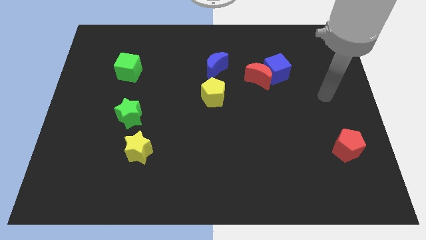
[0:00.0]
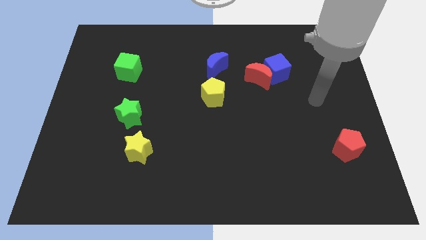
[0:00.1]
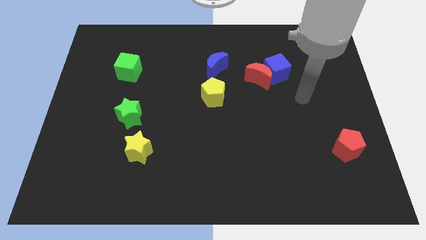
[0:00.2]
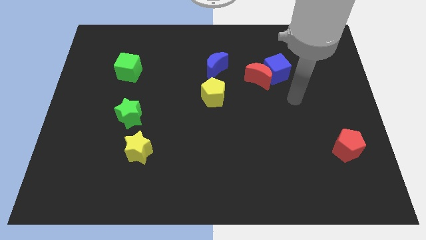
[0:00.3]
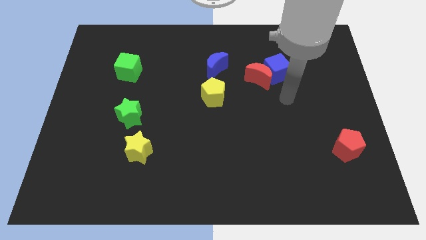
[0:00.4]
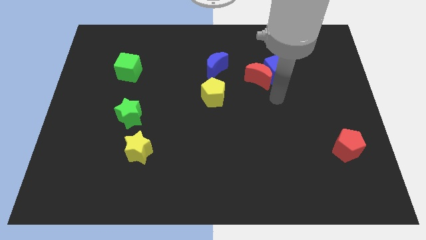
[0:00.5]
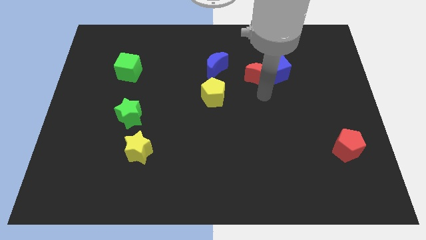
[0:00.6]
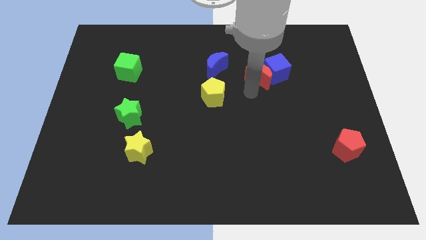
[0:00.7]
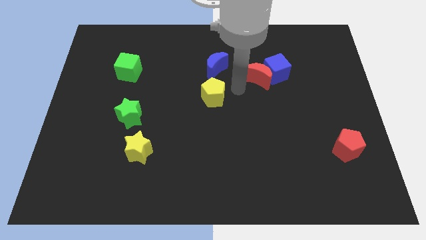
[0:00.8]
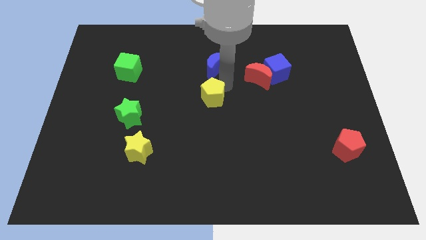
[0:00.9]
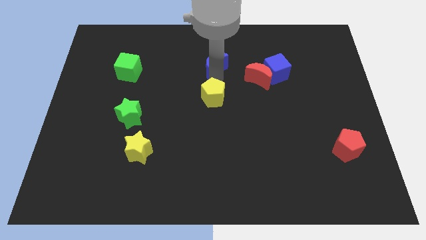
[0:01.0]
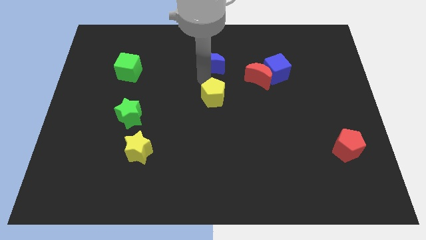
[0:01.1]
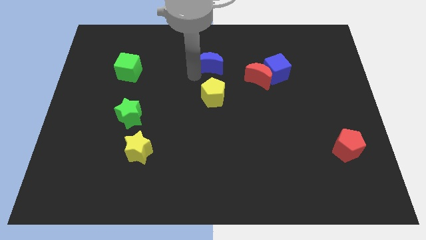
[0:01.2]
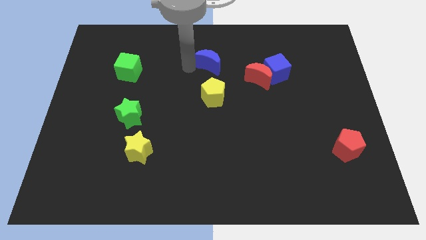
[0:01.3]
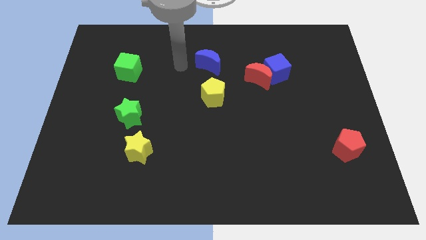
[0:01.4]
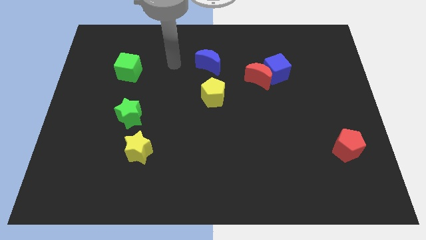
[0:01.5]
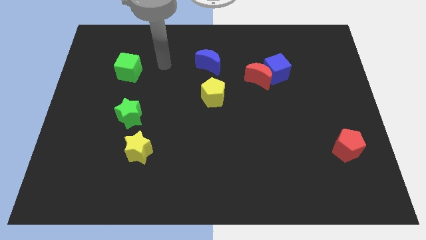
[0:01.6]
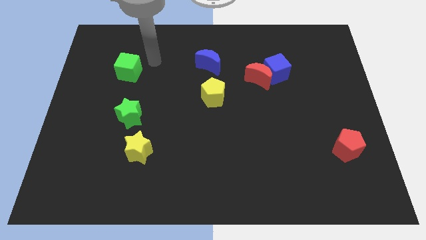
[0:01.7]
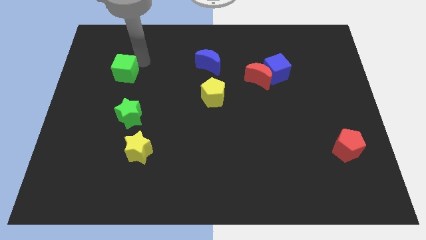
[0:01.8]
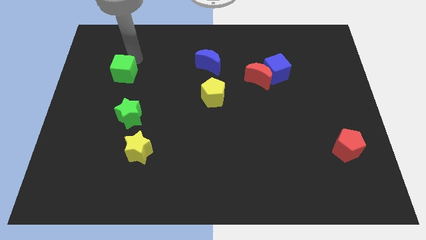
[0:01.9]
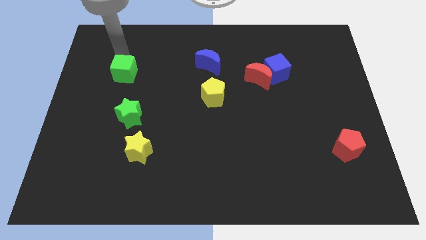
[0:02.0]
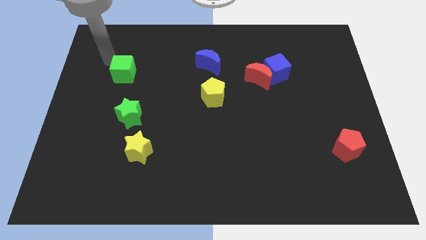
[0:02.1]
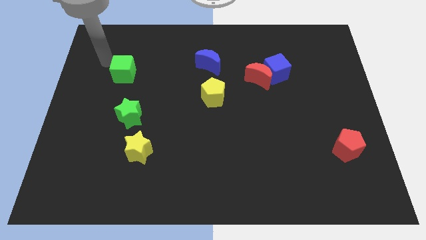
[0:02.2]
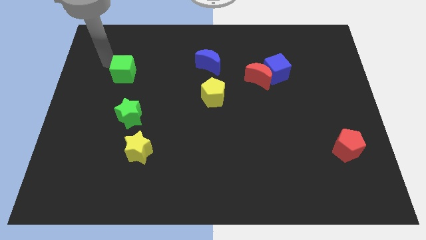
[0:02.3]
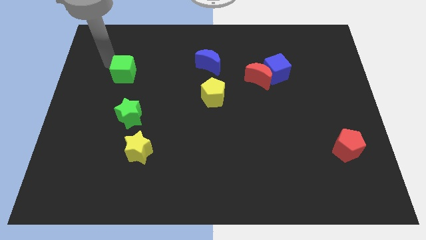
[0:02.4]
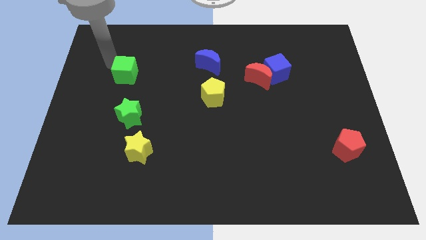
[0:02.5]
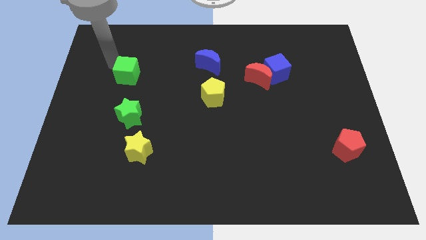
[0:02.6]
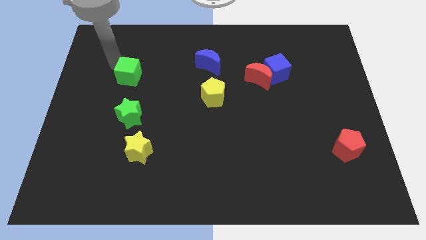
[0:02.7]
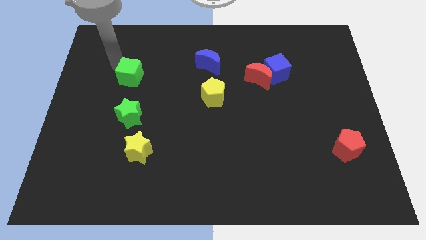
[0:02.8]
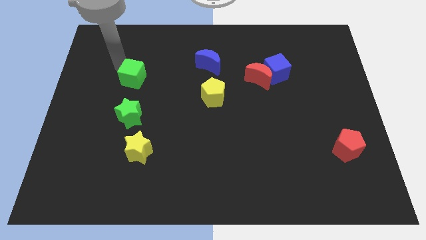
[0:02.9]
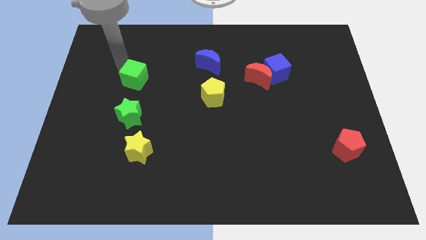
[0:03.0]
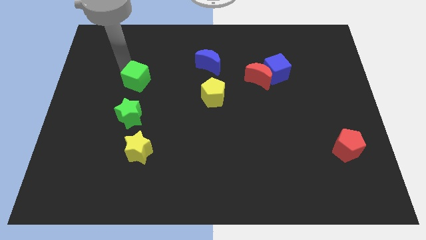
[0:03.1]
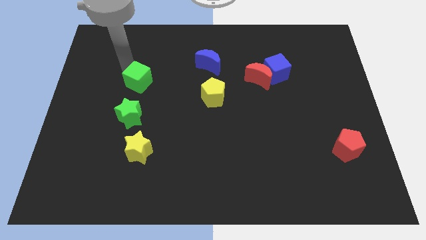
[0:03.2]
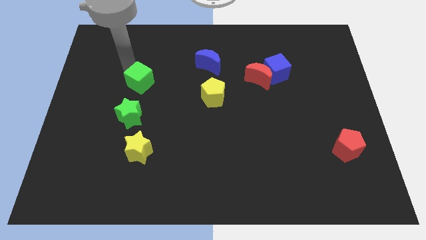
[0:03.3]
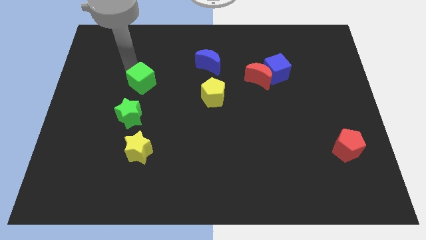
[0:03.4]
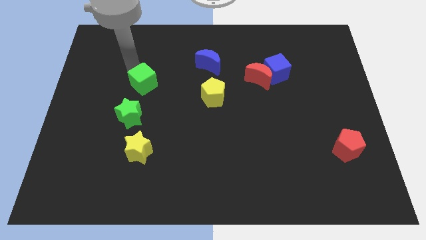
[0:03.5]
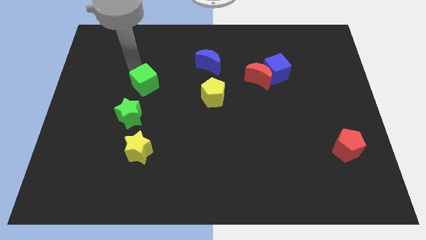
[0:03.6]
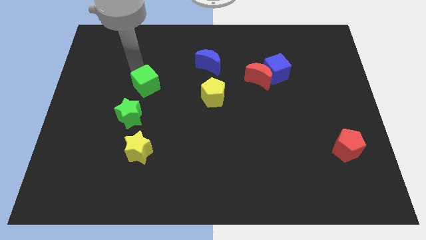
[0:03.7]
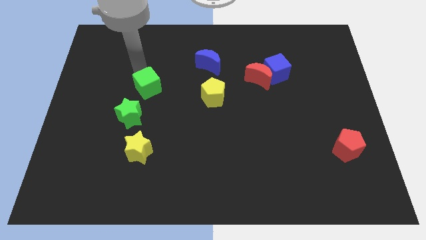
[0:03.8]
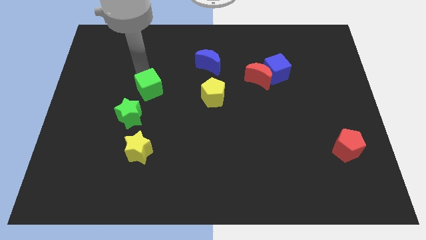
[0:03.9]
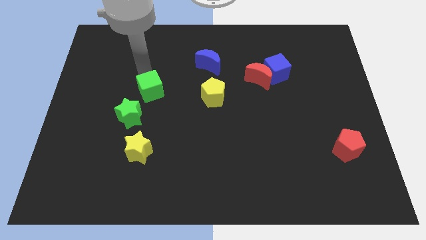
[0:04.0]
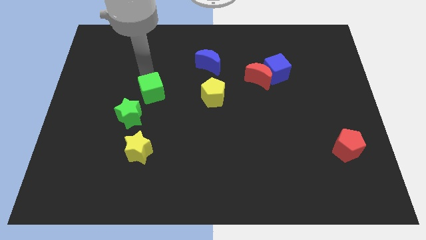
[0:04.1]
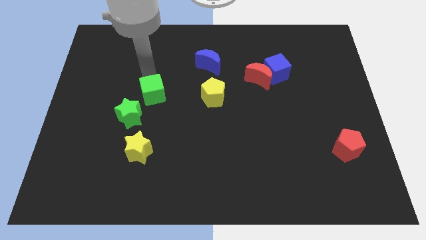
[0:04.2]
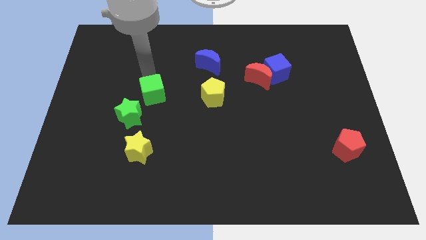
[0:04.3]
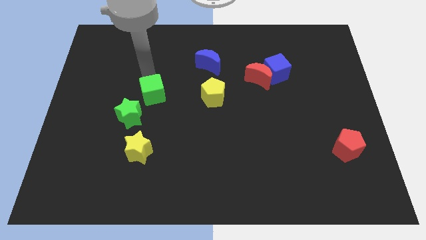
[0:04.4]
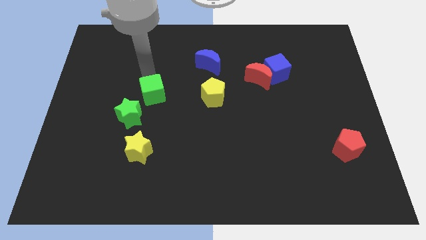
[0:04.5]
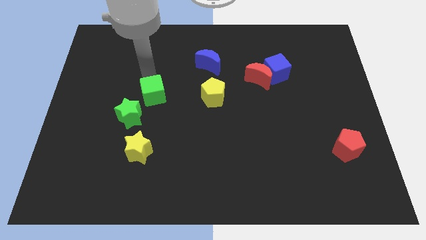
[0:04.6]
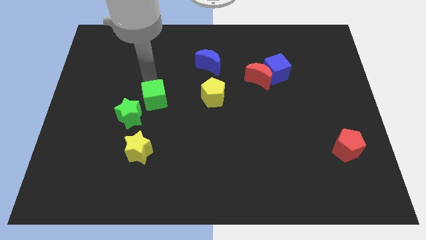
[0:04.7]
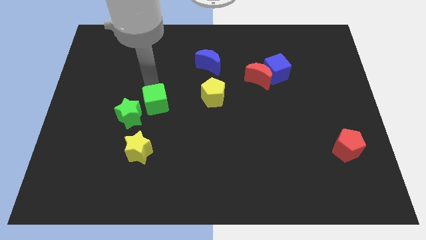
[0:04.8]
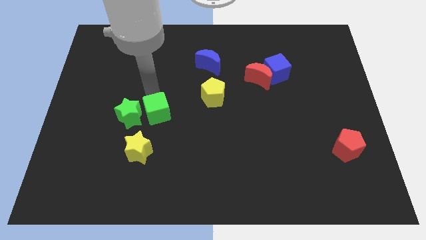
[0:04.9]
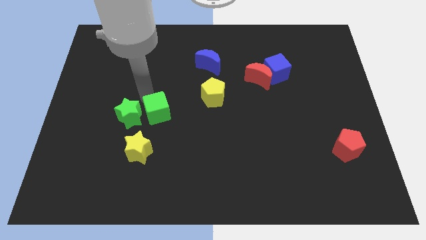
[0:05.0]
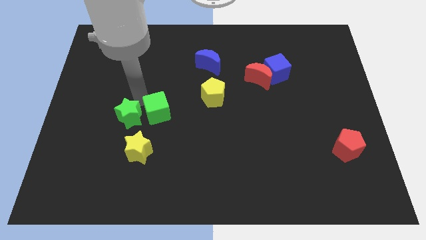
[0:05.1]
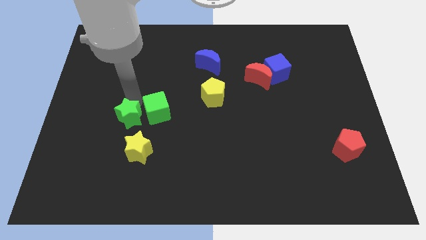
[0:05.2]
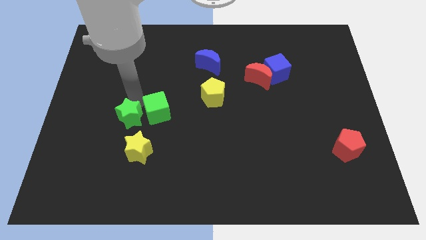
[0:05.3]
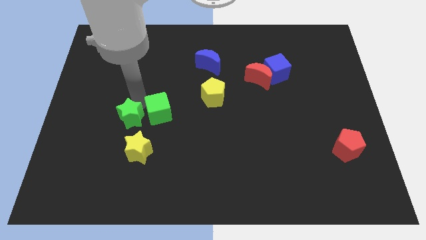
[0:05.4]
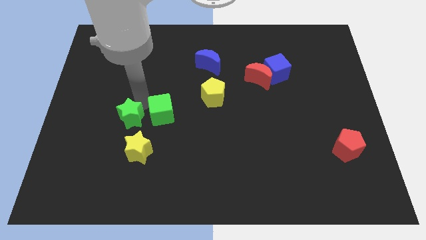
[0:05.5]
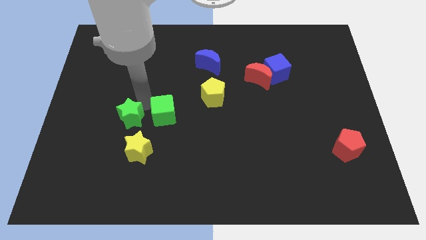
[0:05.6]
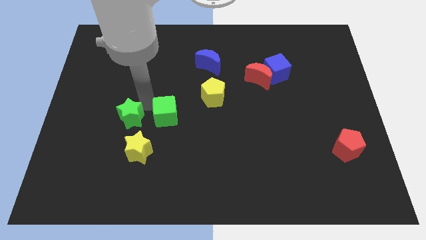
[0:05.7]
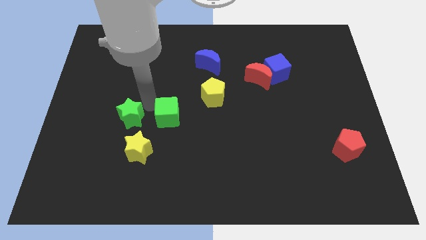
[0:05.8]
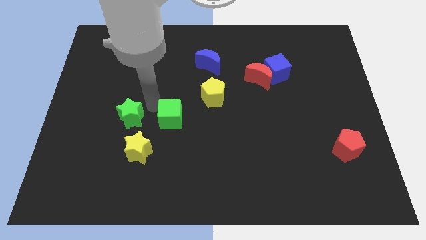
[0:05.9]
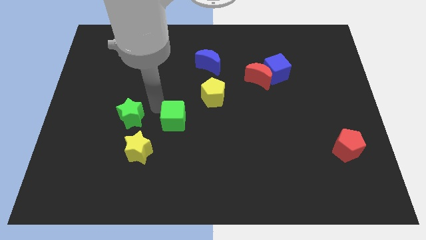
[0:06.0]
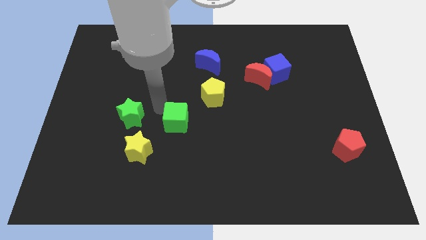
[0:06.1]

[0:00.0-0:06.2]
move the green cube diagonally down and to the right

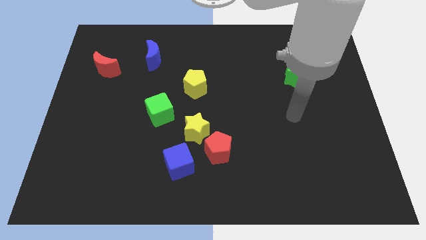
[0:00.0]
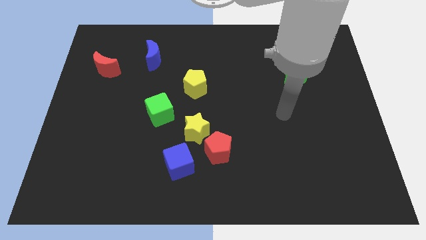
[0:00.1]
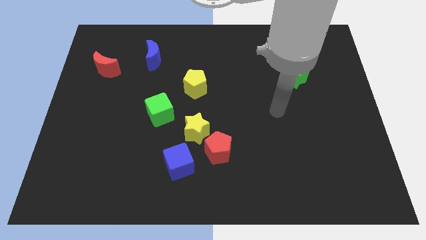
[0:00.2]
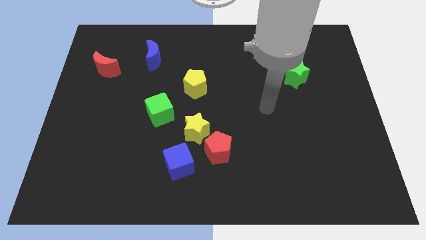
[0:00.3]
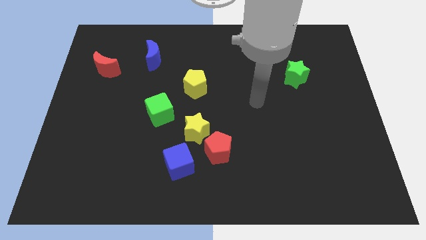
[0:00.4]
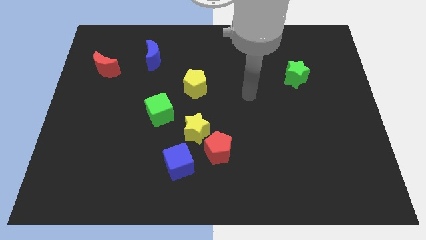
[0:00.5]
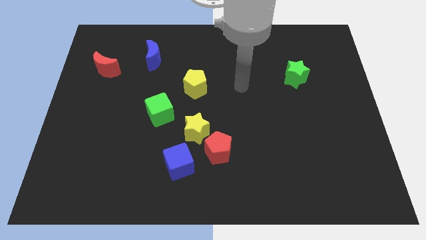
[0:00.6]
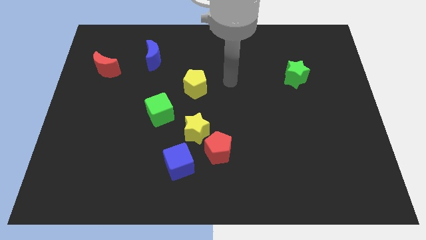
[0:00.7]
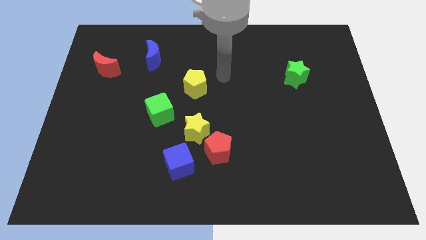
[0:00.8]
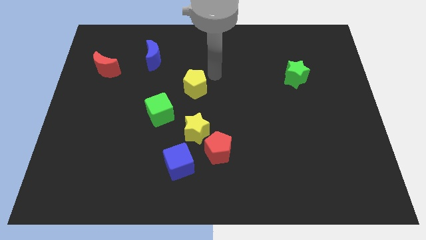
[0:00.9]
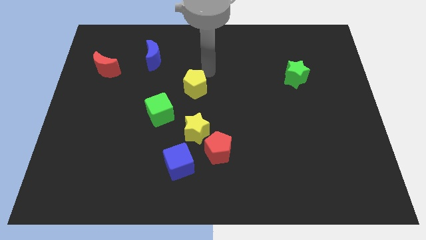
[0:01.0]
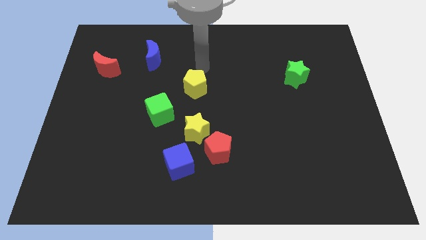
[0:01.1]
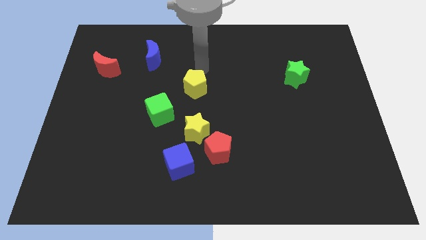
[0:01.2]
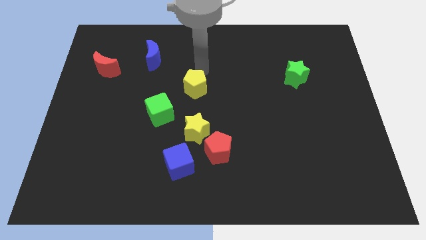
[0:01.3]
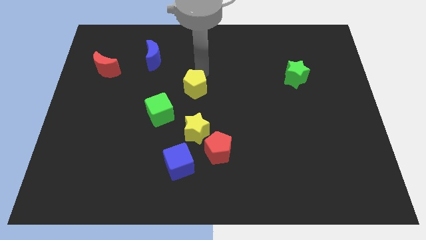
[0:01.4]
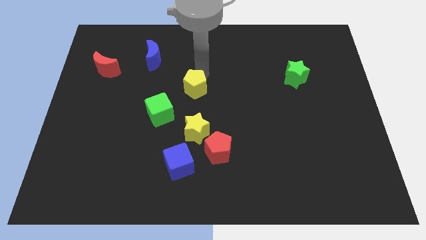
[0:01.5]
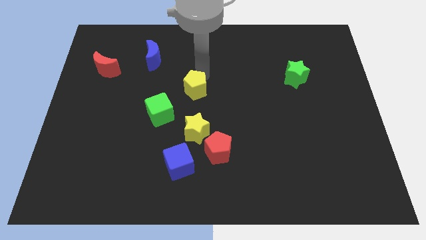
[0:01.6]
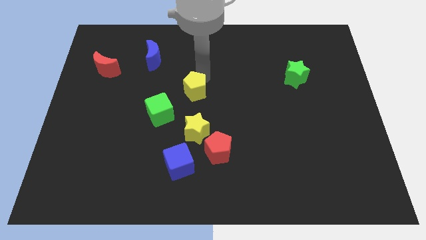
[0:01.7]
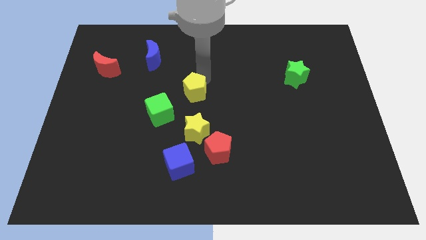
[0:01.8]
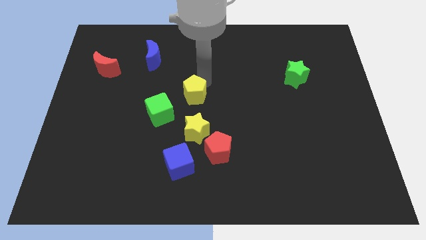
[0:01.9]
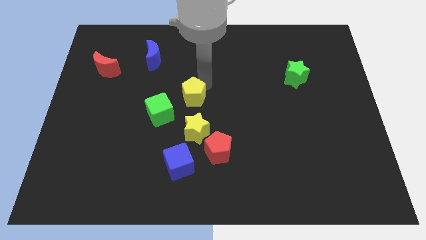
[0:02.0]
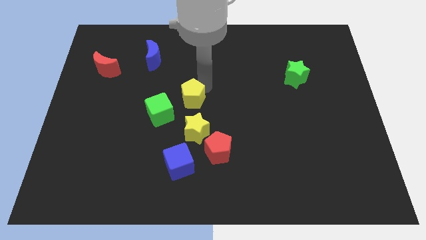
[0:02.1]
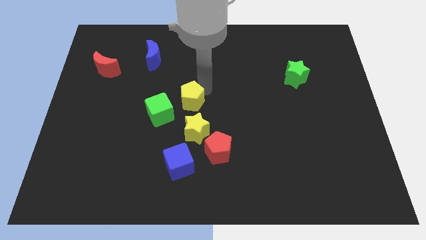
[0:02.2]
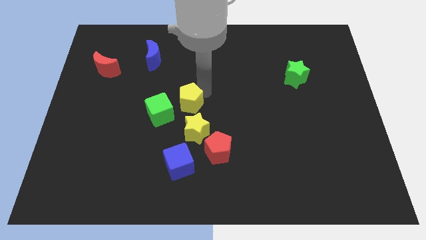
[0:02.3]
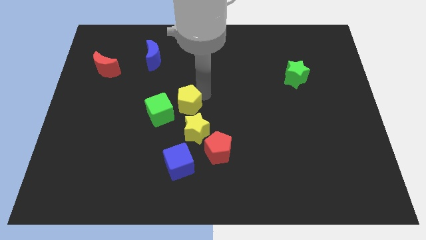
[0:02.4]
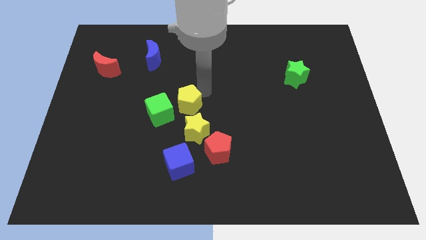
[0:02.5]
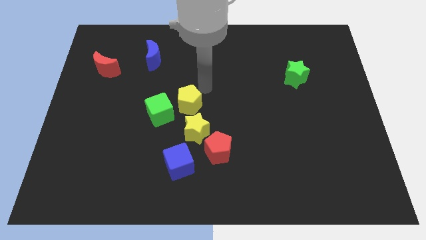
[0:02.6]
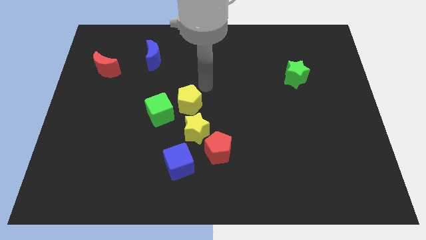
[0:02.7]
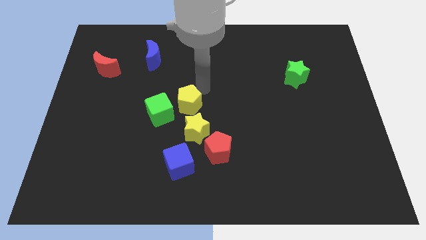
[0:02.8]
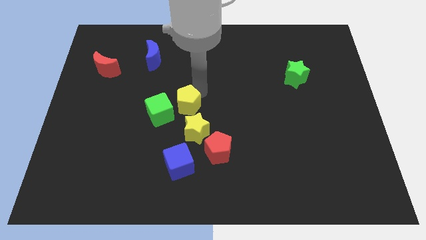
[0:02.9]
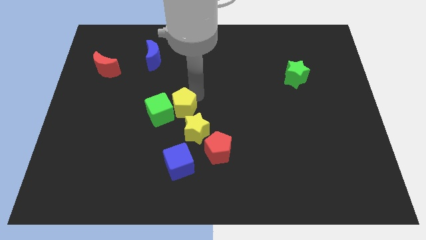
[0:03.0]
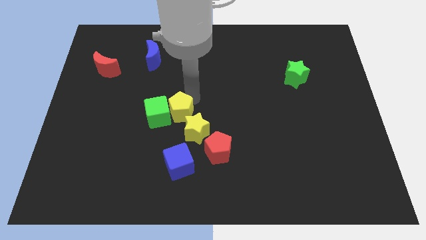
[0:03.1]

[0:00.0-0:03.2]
push the yellow pentagon a little bit downwards and then to the left
